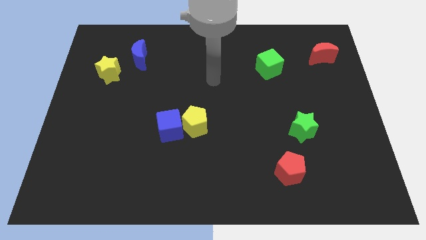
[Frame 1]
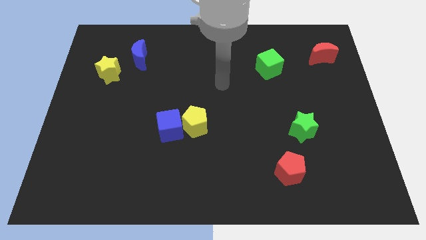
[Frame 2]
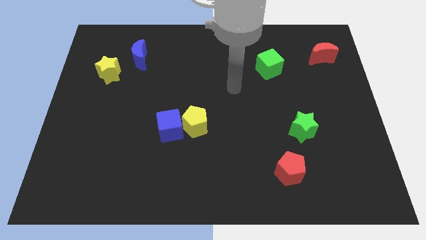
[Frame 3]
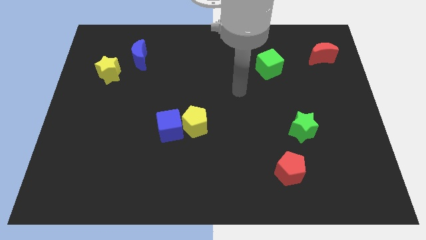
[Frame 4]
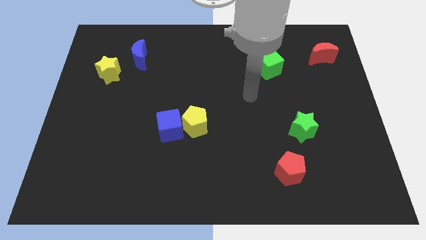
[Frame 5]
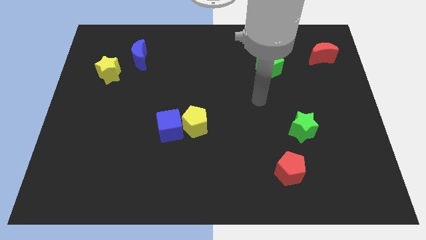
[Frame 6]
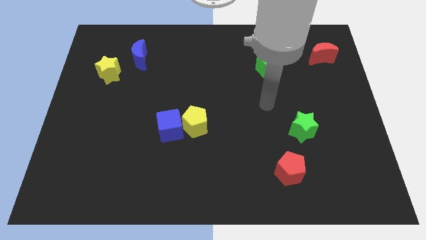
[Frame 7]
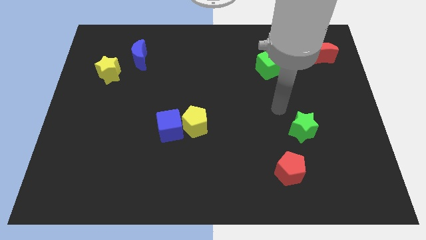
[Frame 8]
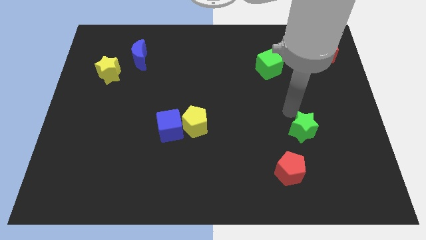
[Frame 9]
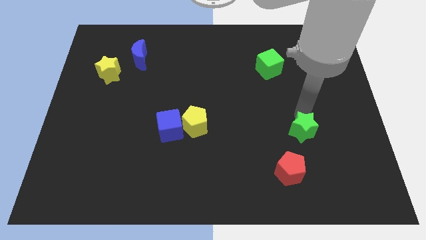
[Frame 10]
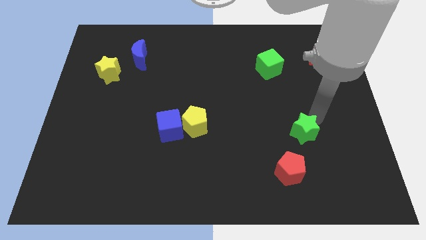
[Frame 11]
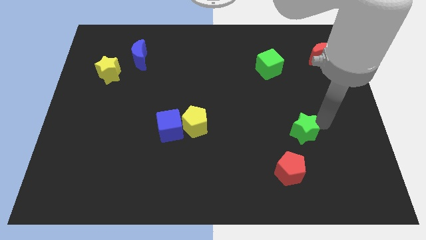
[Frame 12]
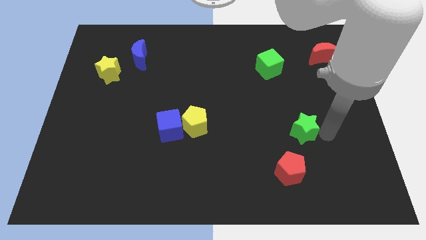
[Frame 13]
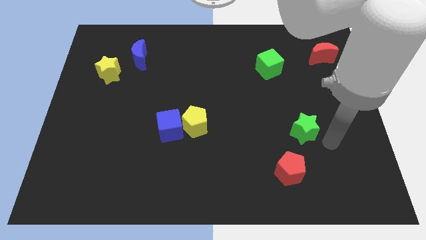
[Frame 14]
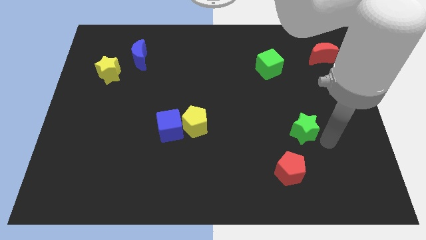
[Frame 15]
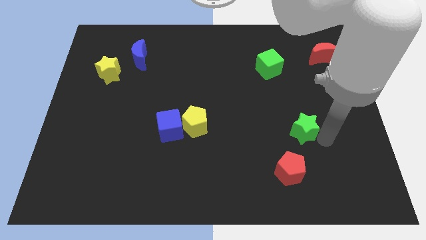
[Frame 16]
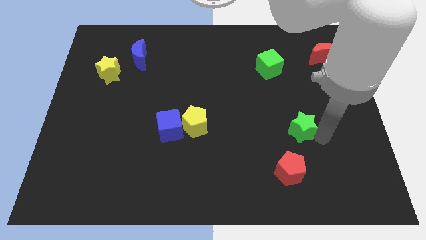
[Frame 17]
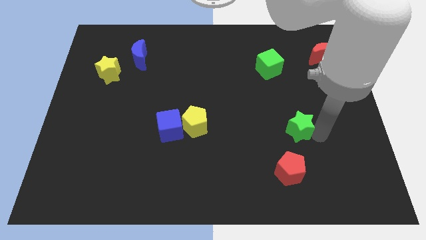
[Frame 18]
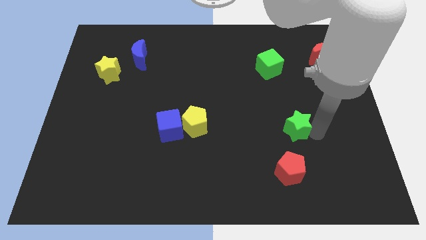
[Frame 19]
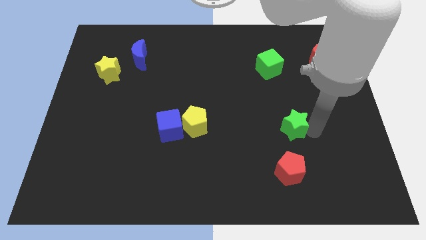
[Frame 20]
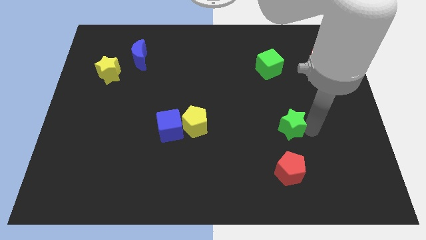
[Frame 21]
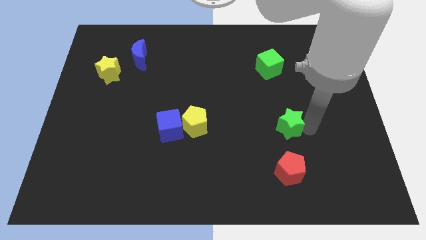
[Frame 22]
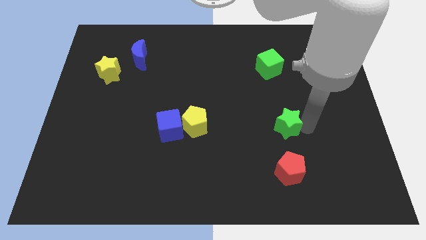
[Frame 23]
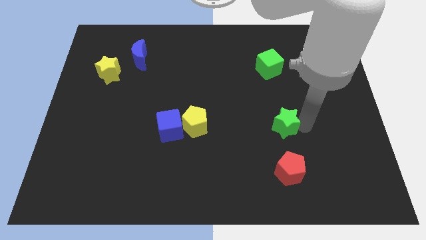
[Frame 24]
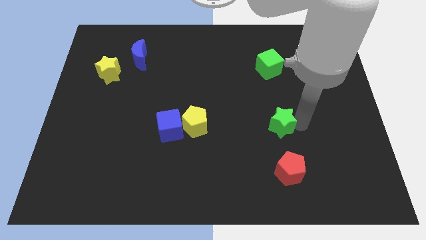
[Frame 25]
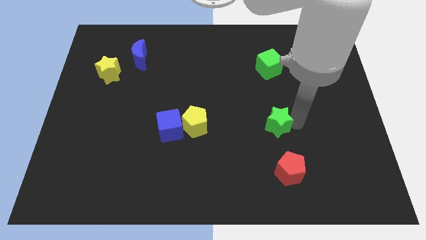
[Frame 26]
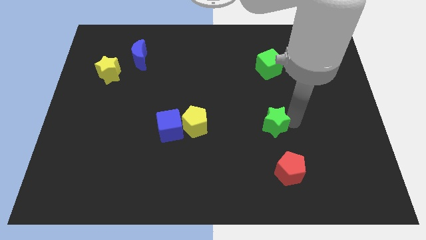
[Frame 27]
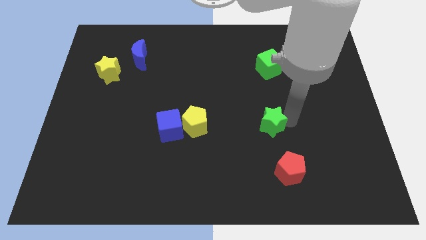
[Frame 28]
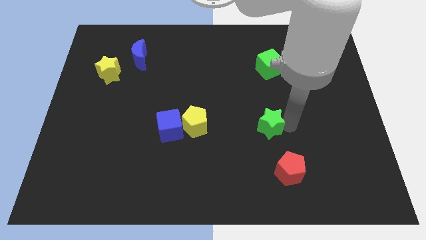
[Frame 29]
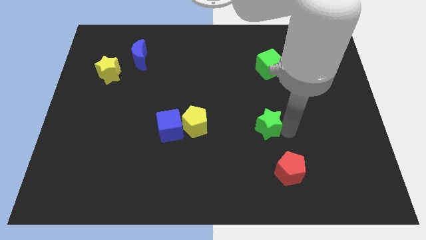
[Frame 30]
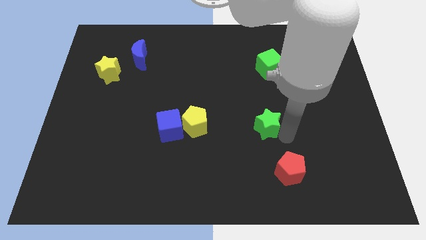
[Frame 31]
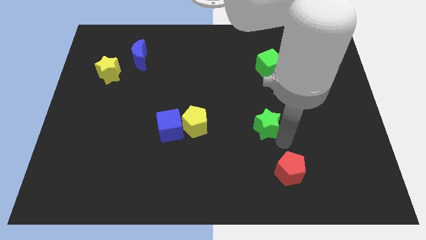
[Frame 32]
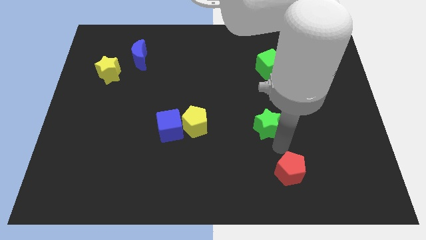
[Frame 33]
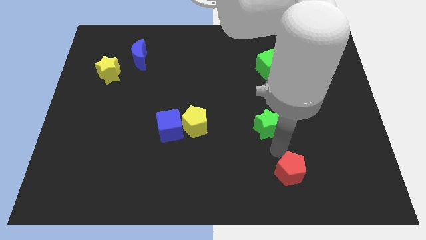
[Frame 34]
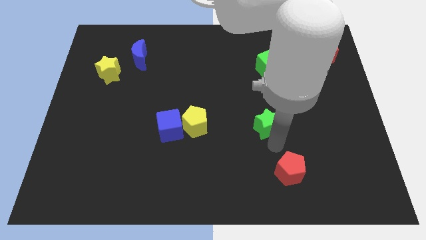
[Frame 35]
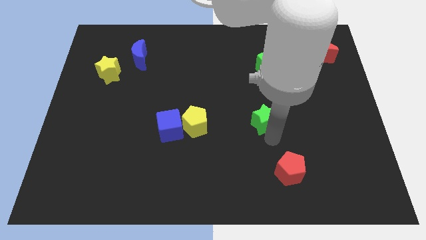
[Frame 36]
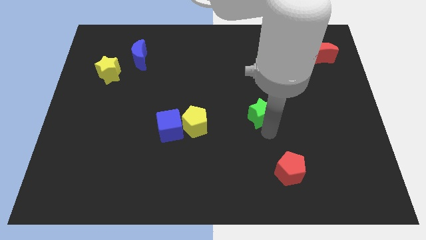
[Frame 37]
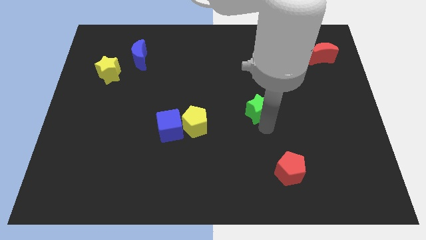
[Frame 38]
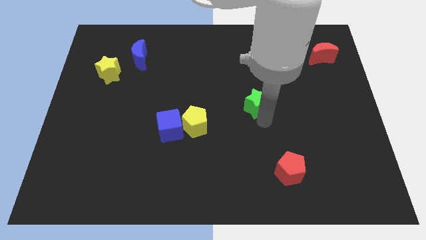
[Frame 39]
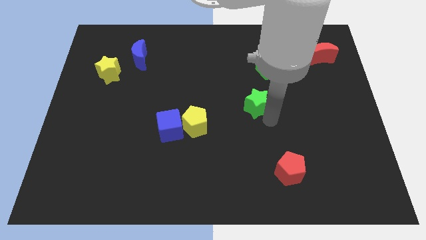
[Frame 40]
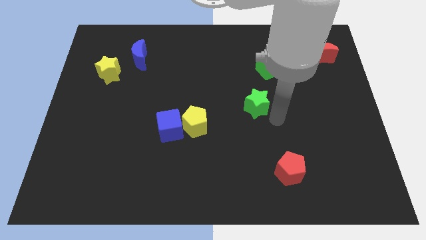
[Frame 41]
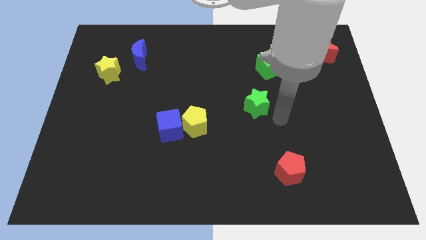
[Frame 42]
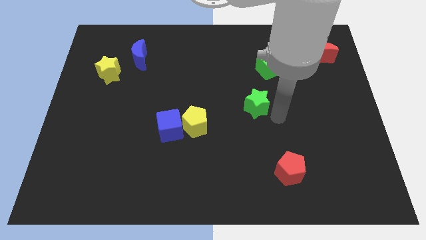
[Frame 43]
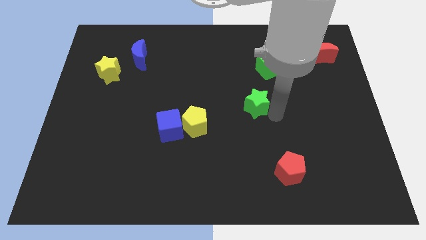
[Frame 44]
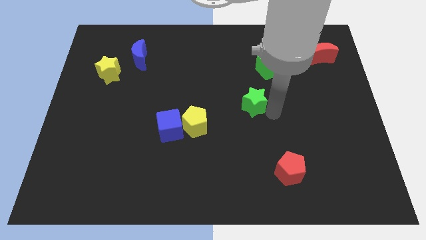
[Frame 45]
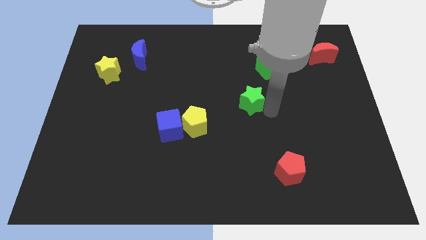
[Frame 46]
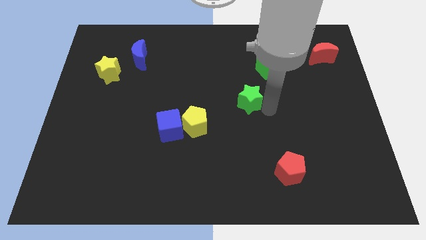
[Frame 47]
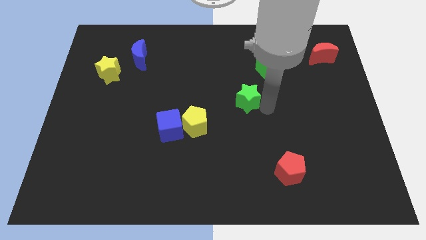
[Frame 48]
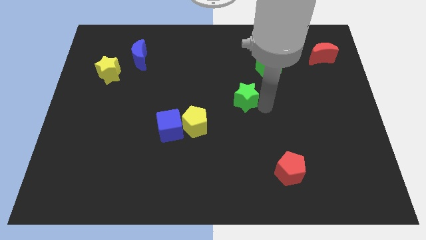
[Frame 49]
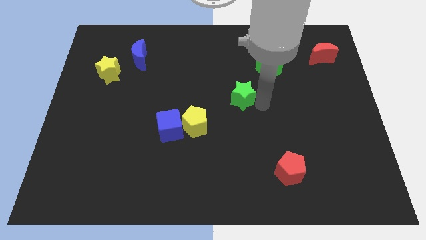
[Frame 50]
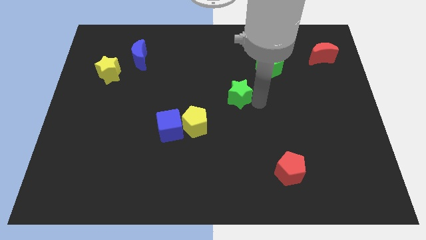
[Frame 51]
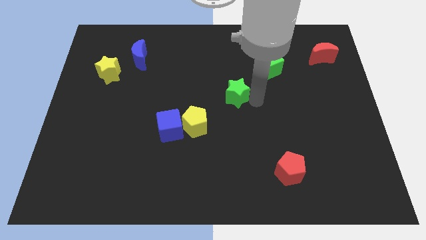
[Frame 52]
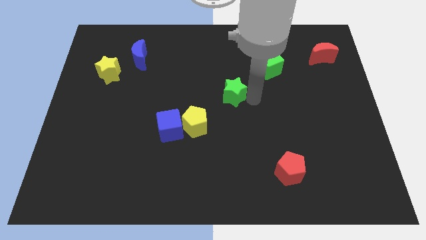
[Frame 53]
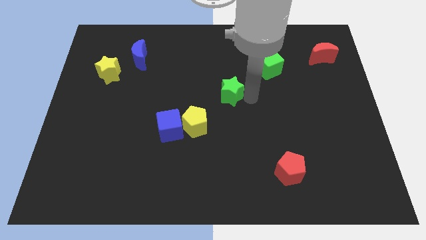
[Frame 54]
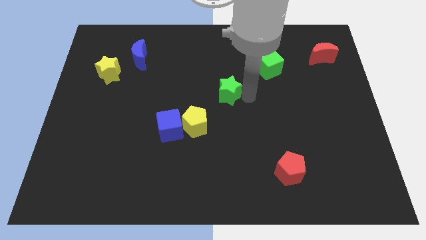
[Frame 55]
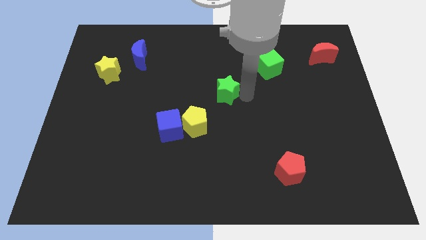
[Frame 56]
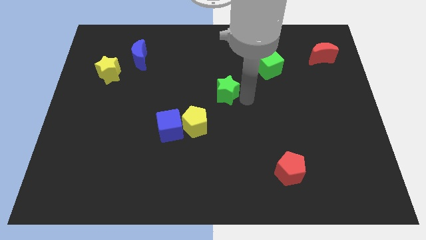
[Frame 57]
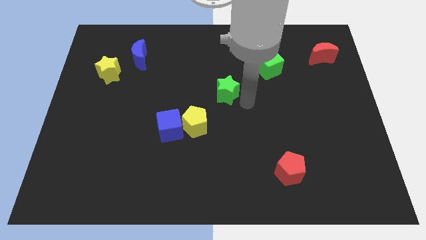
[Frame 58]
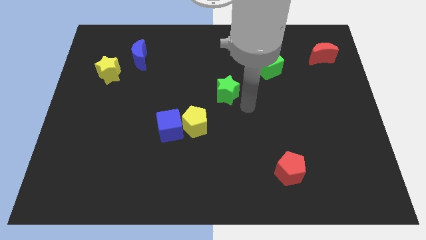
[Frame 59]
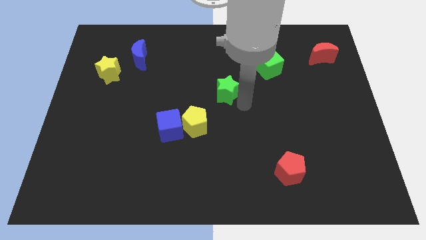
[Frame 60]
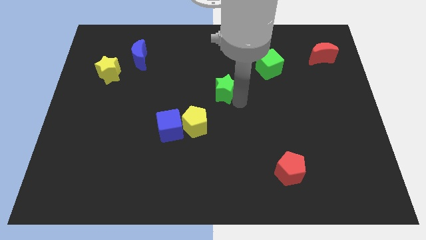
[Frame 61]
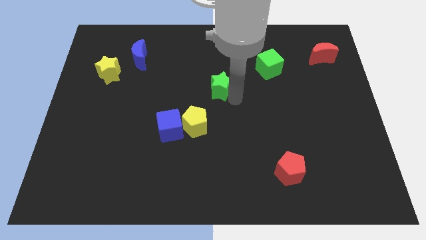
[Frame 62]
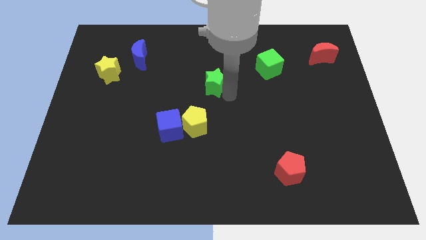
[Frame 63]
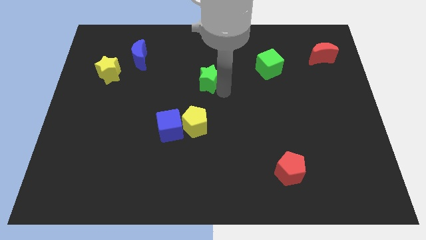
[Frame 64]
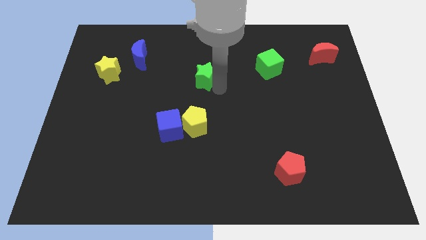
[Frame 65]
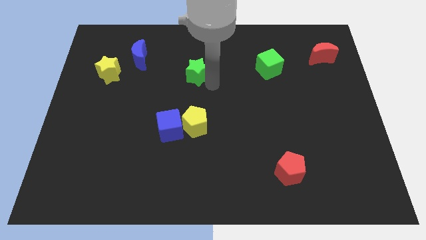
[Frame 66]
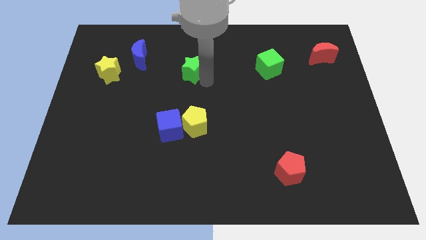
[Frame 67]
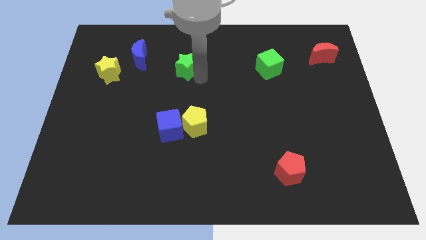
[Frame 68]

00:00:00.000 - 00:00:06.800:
put the green star right of the blue moon
